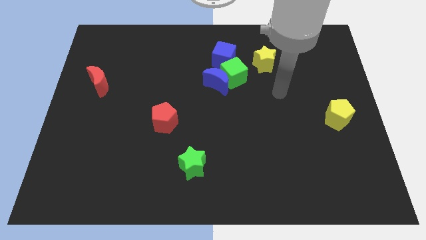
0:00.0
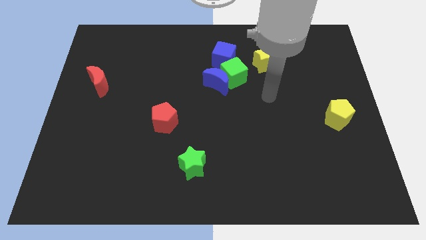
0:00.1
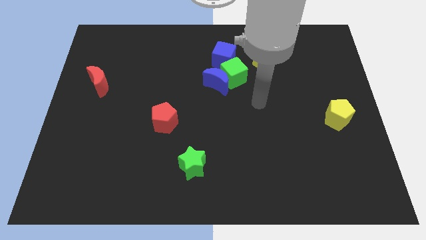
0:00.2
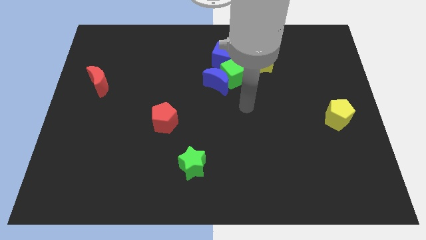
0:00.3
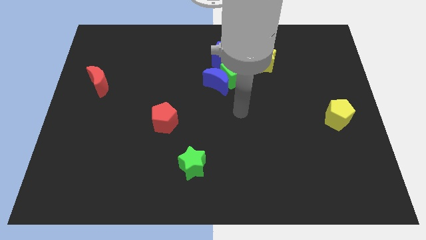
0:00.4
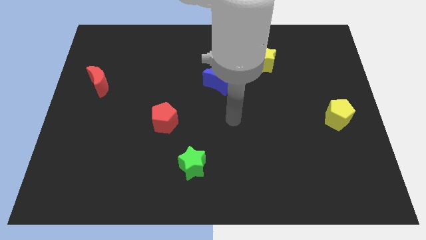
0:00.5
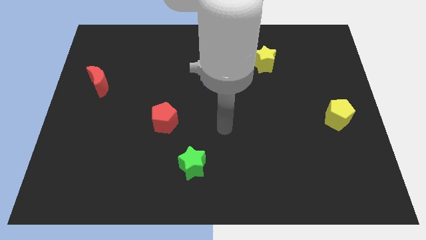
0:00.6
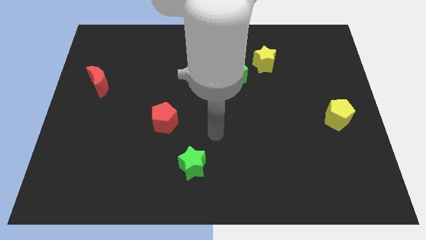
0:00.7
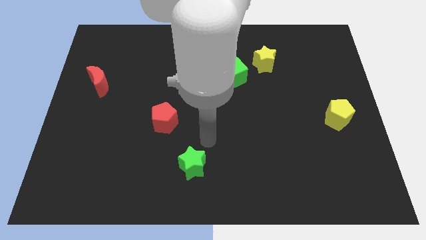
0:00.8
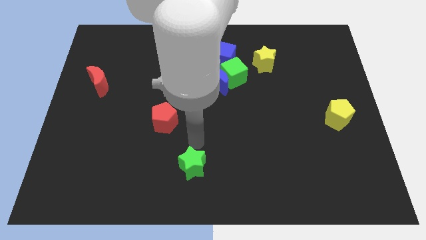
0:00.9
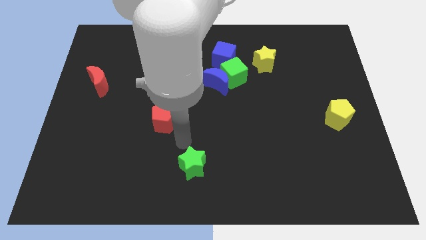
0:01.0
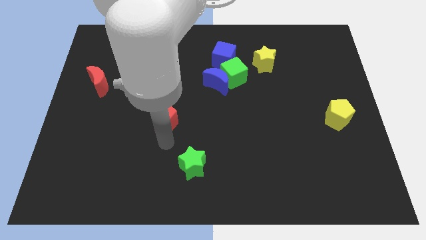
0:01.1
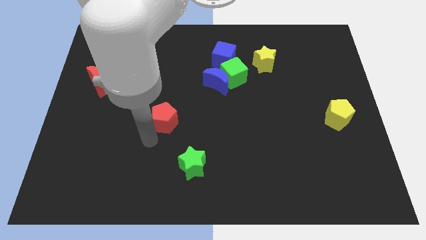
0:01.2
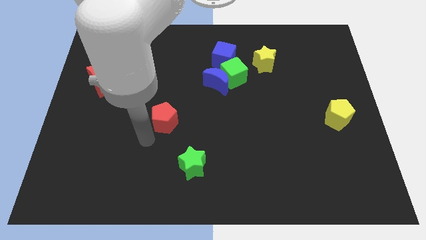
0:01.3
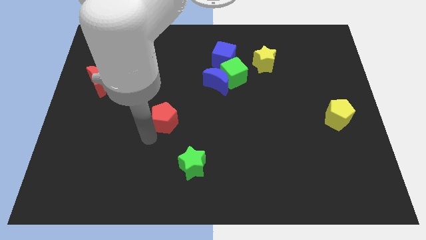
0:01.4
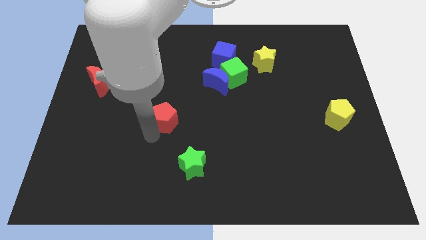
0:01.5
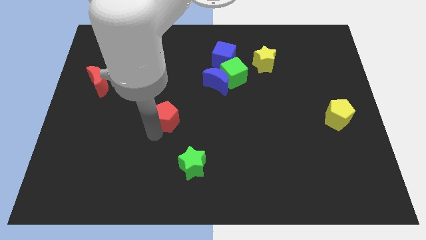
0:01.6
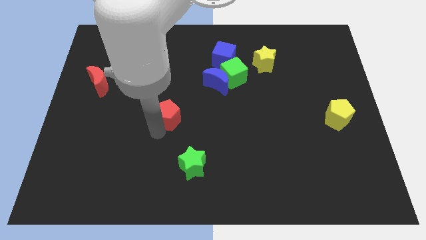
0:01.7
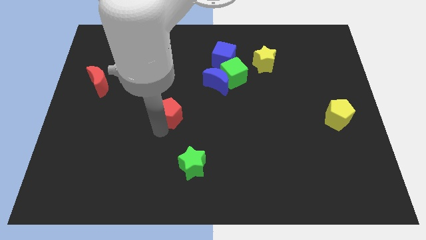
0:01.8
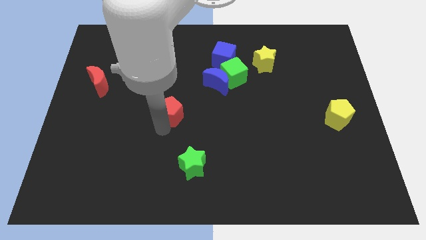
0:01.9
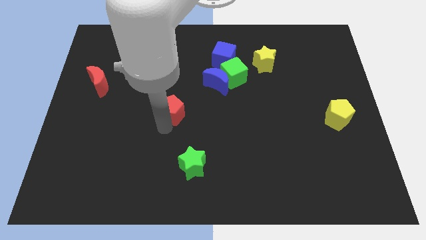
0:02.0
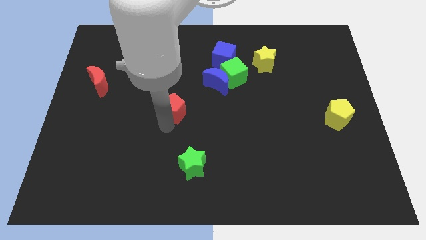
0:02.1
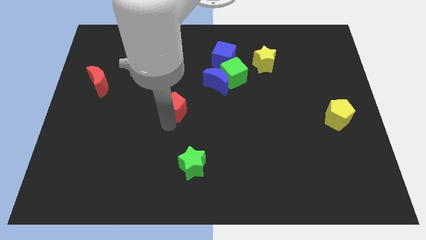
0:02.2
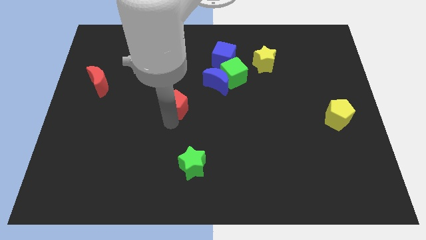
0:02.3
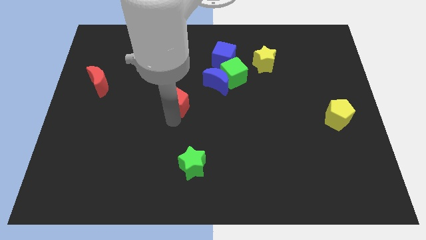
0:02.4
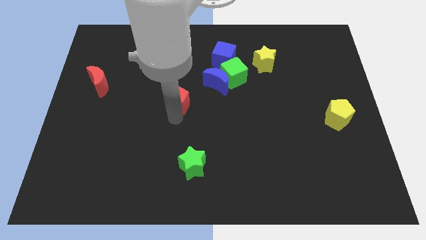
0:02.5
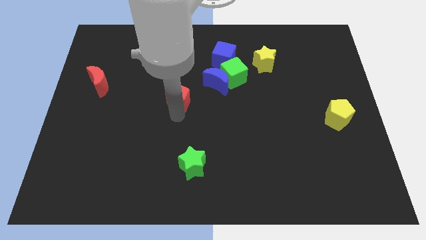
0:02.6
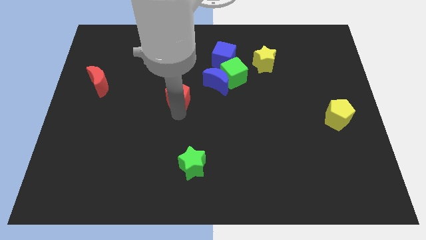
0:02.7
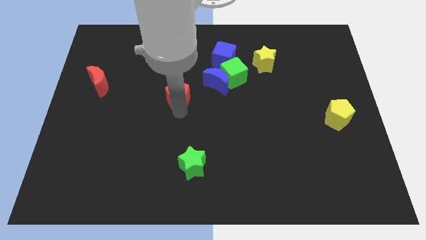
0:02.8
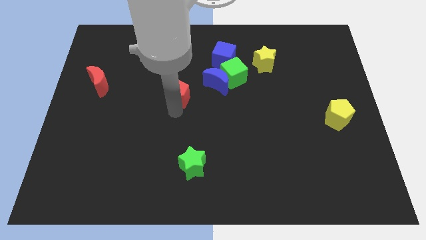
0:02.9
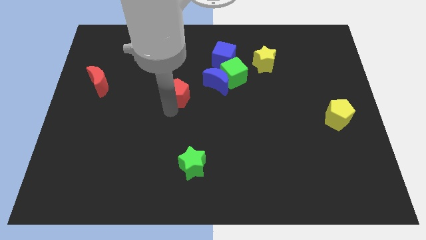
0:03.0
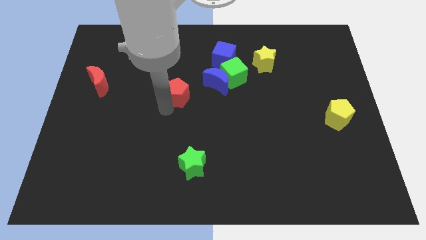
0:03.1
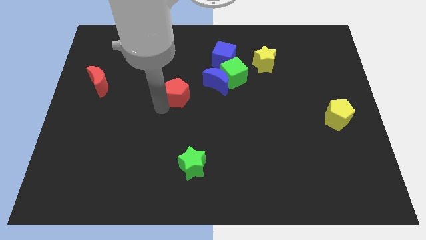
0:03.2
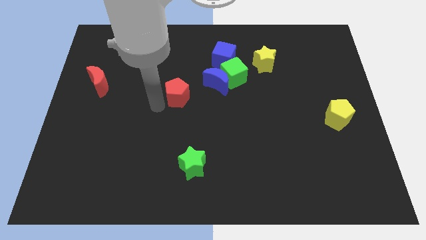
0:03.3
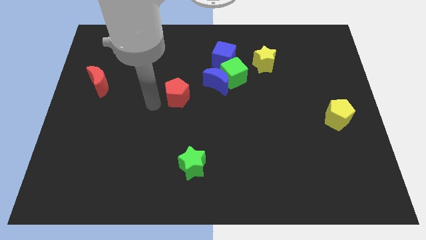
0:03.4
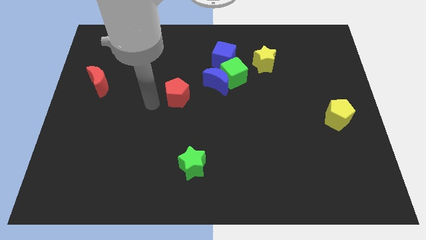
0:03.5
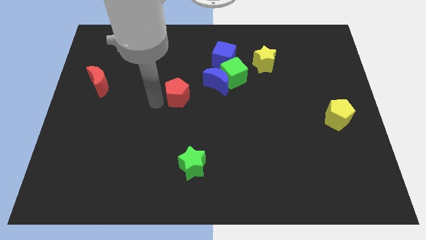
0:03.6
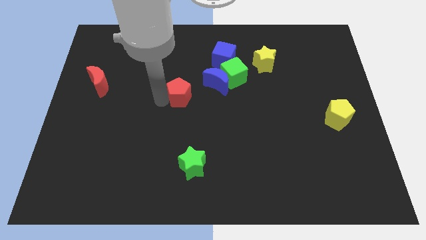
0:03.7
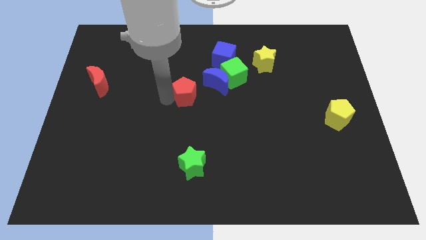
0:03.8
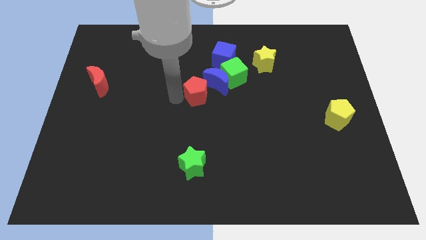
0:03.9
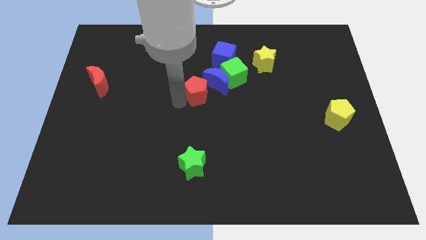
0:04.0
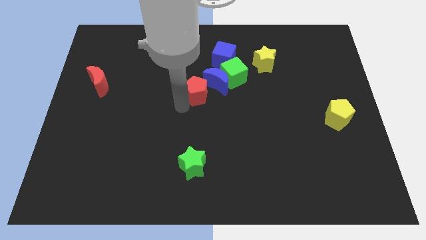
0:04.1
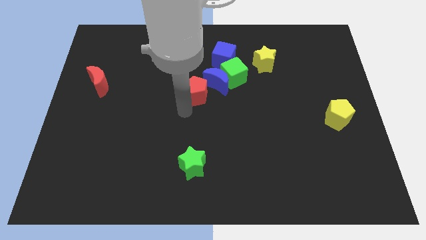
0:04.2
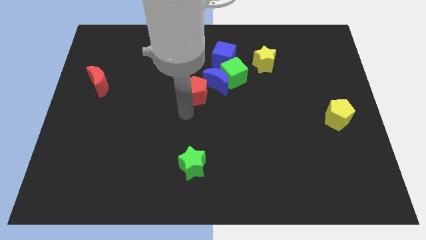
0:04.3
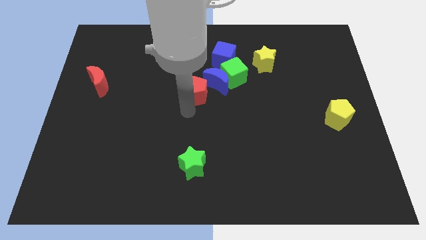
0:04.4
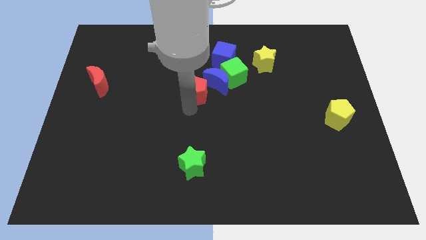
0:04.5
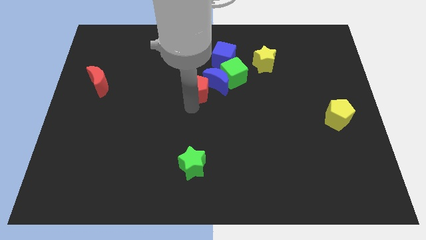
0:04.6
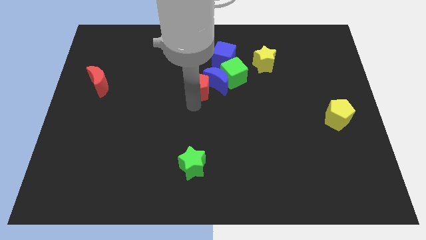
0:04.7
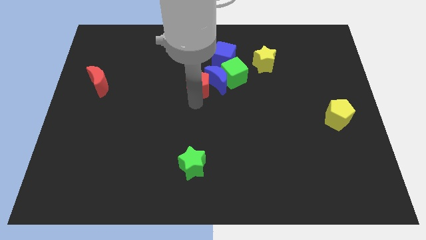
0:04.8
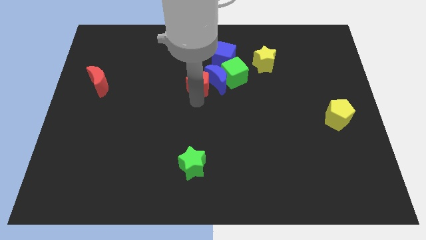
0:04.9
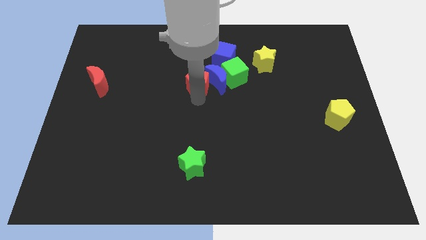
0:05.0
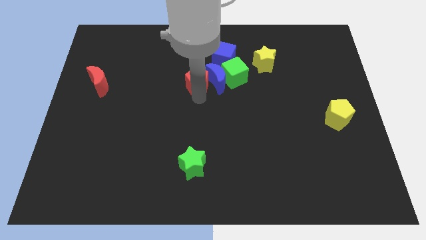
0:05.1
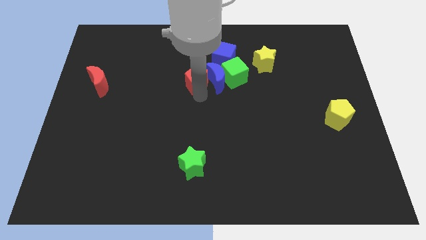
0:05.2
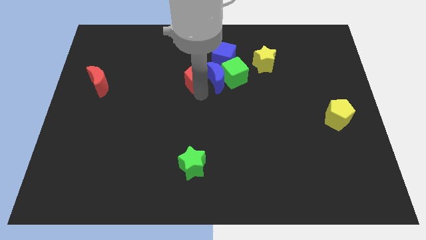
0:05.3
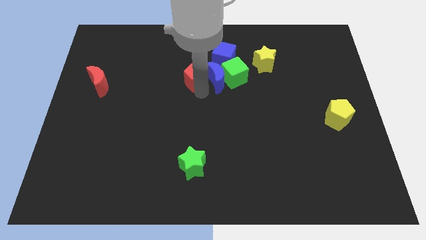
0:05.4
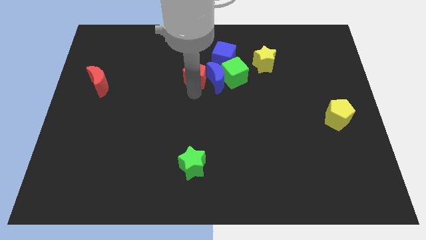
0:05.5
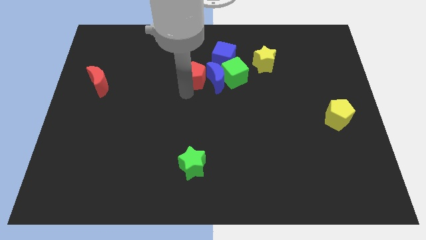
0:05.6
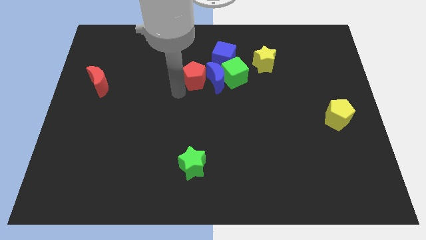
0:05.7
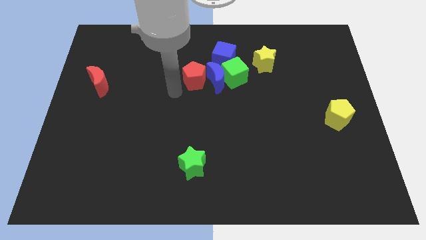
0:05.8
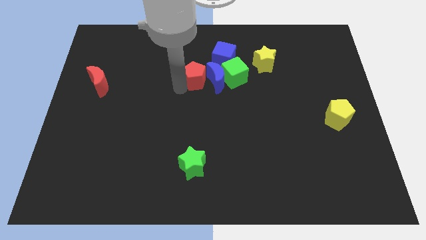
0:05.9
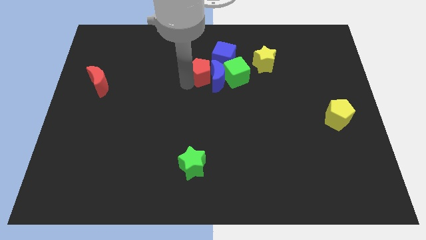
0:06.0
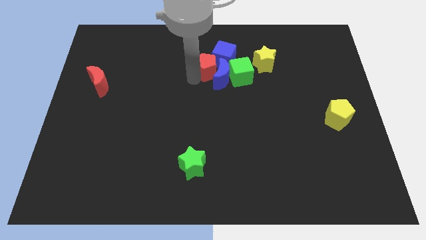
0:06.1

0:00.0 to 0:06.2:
push the red pentagon close to the blue cube

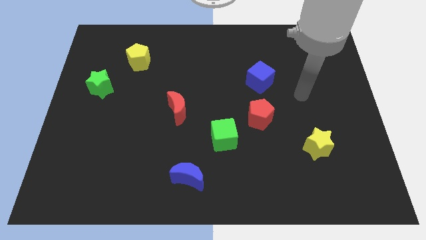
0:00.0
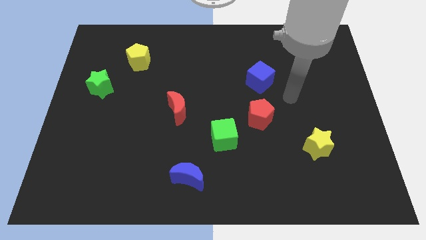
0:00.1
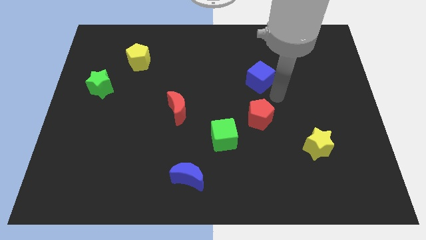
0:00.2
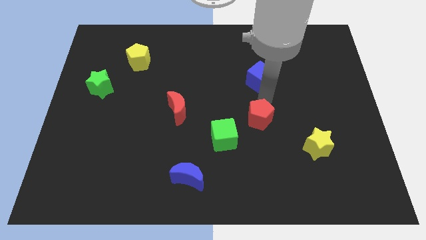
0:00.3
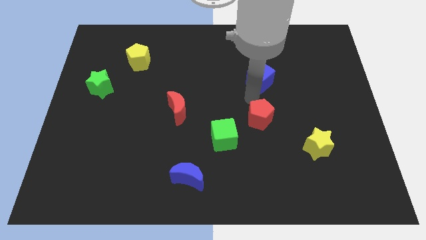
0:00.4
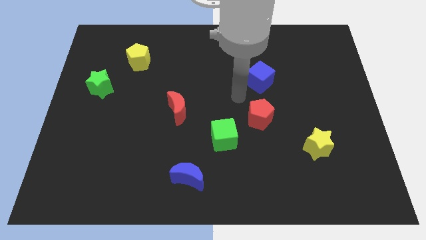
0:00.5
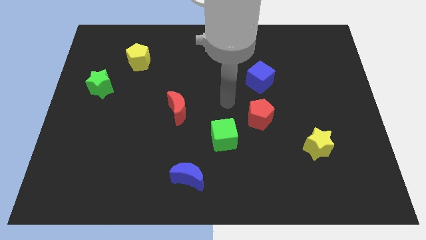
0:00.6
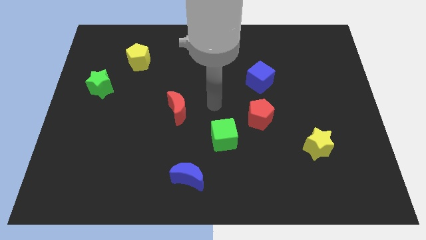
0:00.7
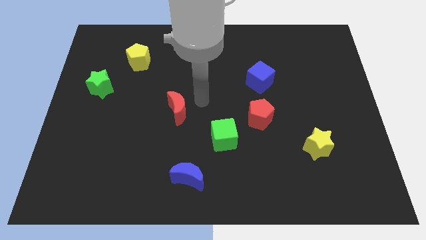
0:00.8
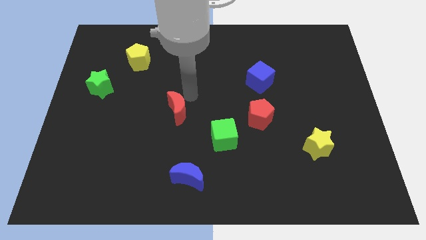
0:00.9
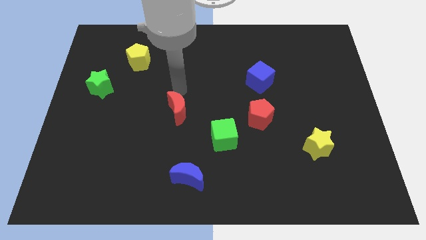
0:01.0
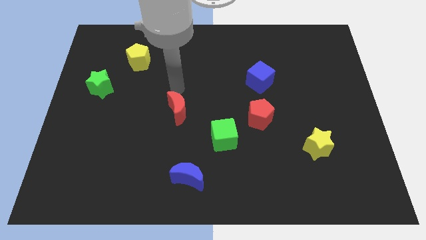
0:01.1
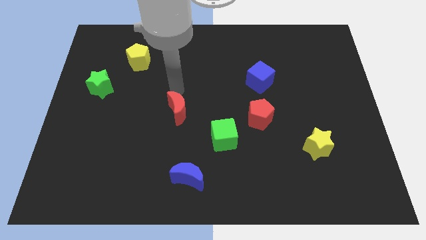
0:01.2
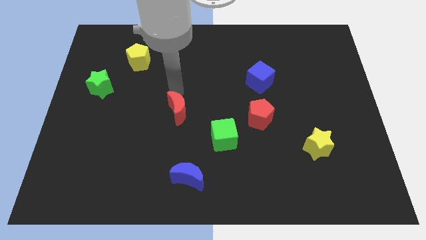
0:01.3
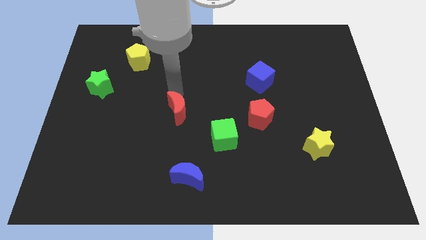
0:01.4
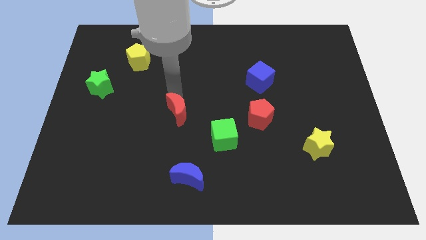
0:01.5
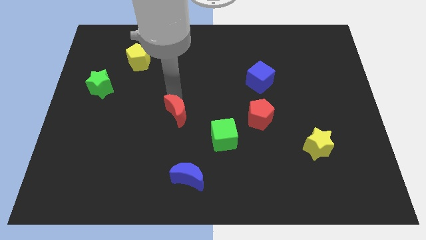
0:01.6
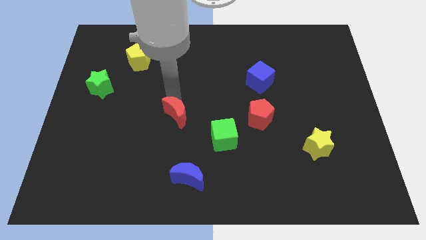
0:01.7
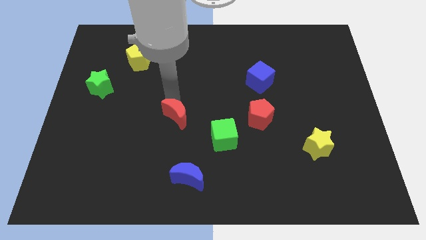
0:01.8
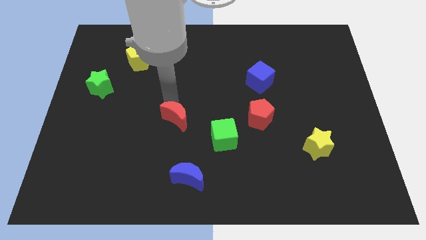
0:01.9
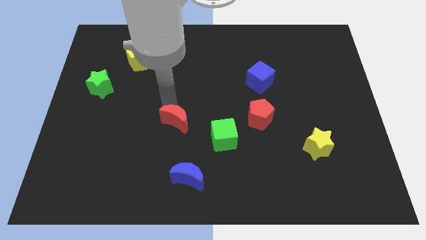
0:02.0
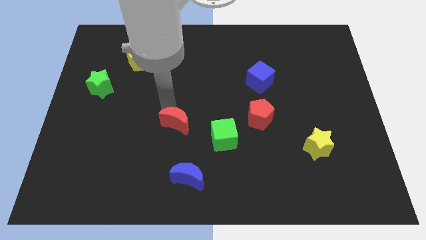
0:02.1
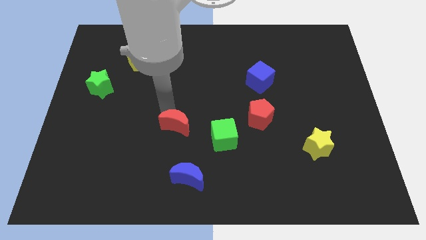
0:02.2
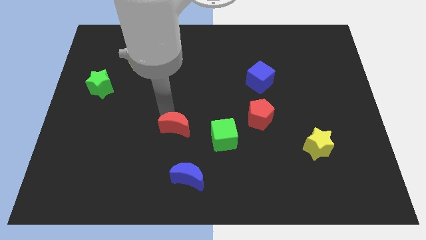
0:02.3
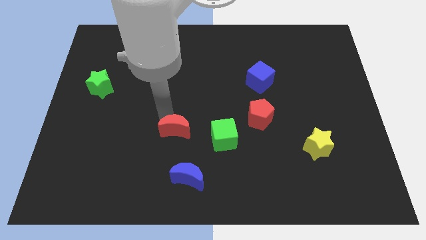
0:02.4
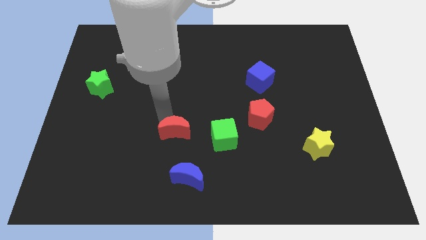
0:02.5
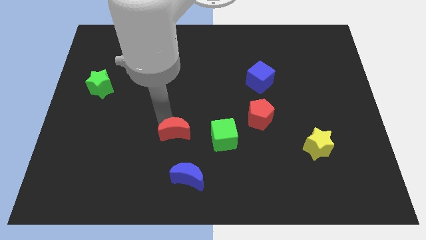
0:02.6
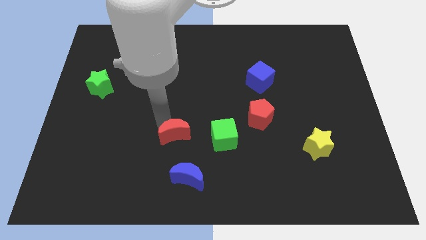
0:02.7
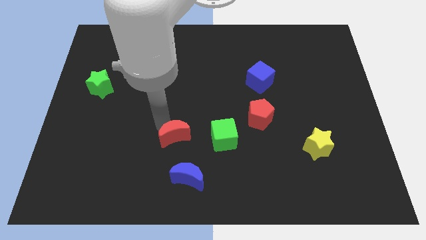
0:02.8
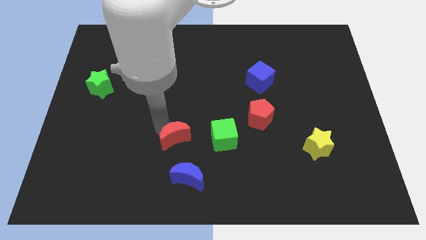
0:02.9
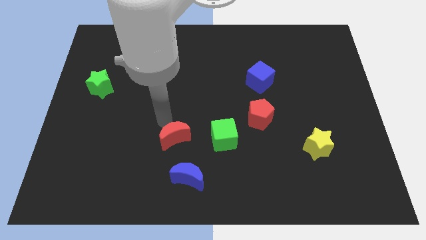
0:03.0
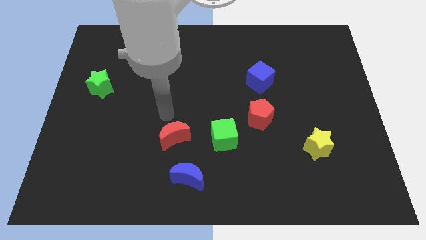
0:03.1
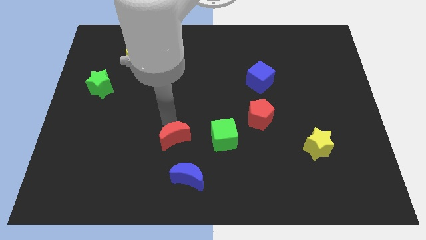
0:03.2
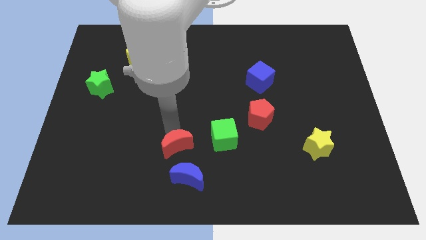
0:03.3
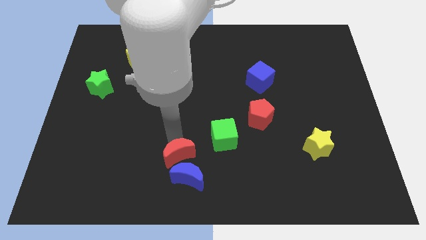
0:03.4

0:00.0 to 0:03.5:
slide the red moon towards the blue moon
